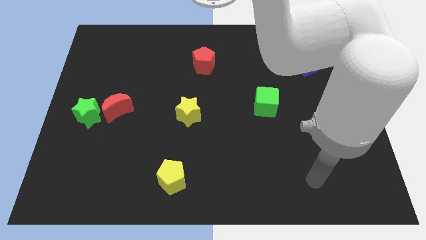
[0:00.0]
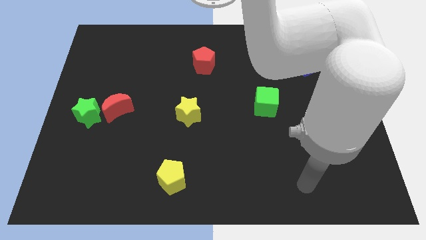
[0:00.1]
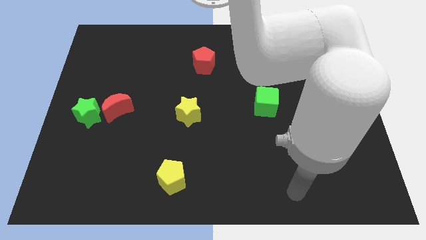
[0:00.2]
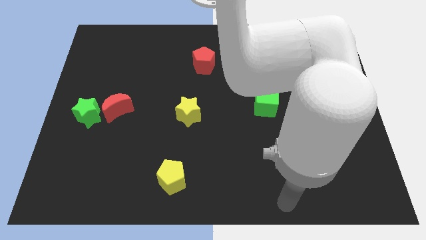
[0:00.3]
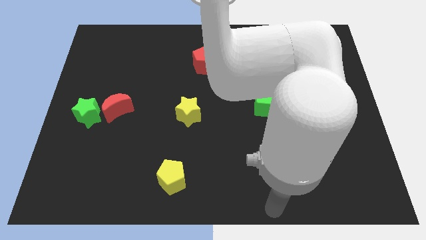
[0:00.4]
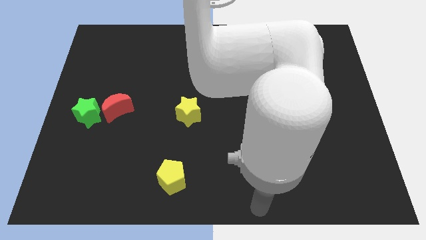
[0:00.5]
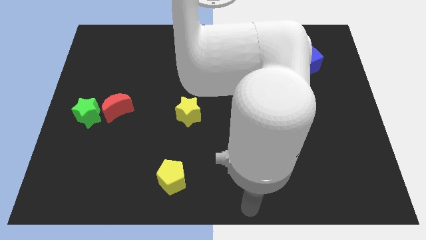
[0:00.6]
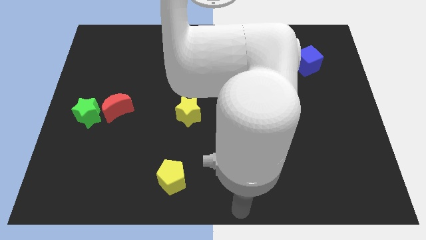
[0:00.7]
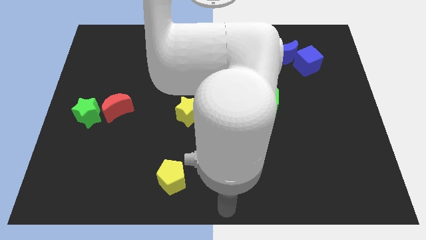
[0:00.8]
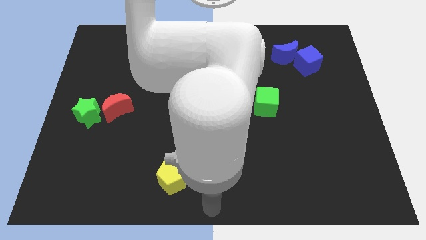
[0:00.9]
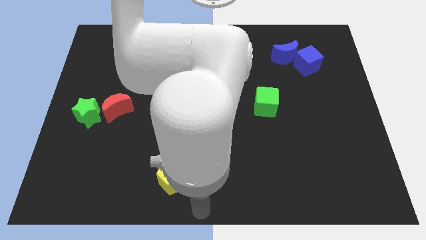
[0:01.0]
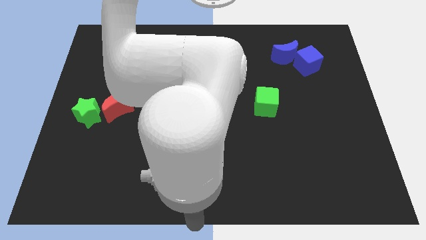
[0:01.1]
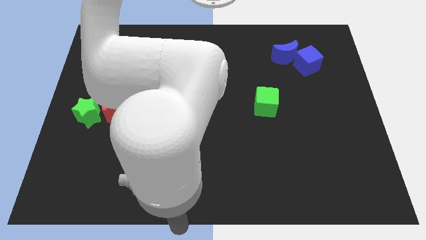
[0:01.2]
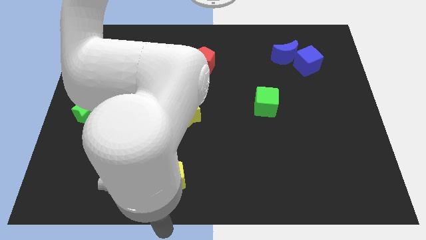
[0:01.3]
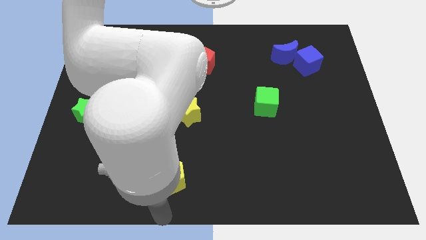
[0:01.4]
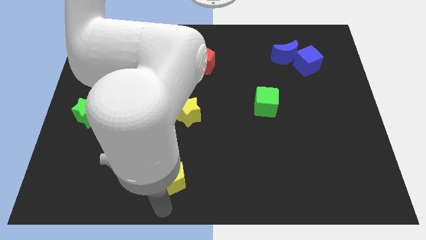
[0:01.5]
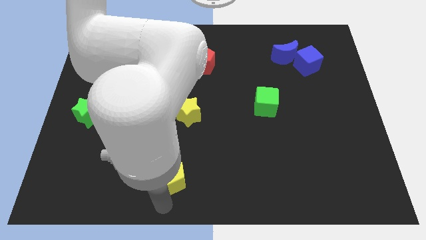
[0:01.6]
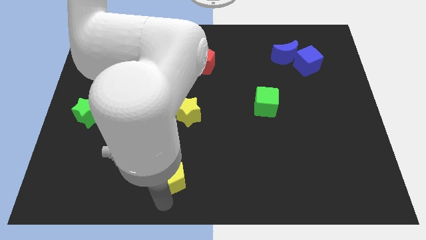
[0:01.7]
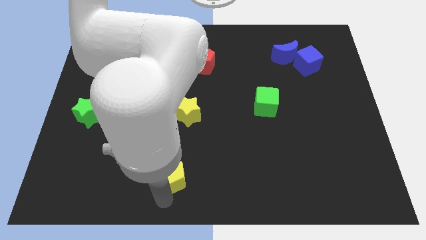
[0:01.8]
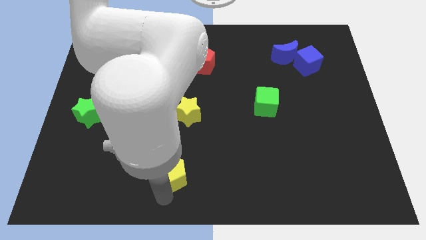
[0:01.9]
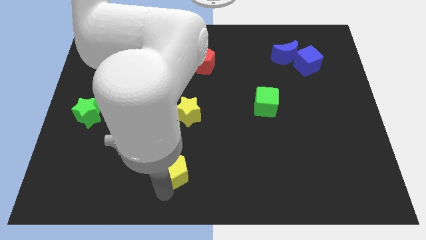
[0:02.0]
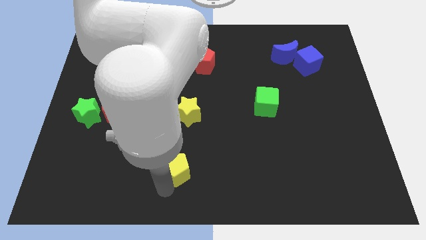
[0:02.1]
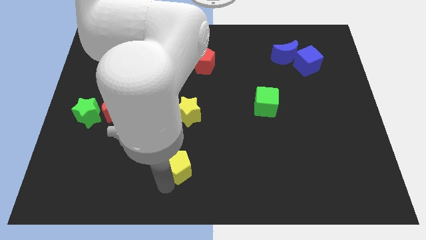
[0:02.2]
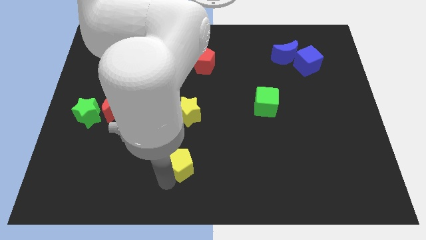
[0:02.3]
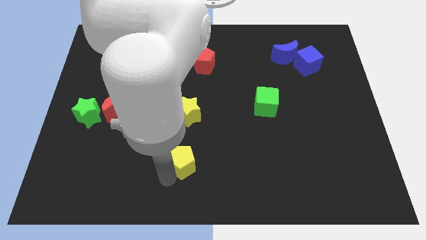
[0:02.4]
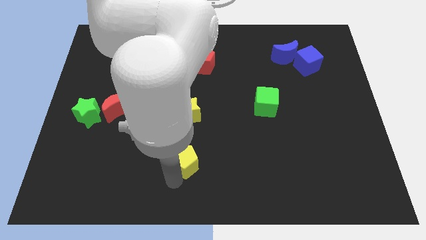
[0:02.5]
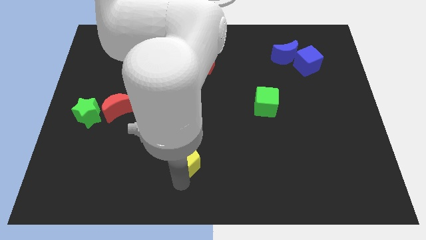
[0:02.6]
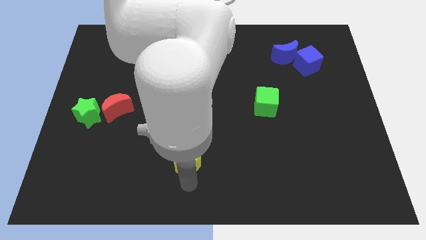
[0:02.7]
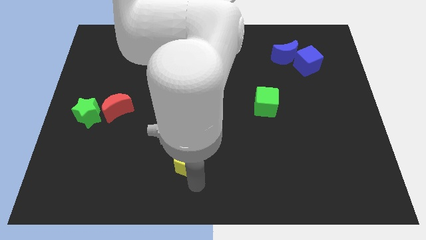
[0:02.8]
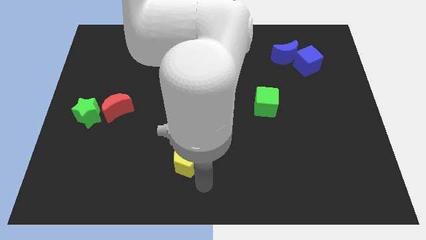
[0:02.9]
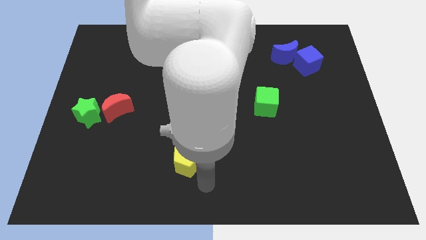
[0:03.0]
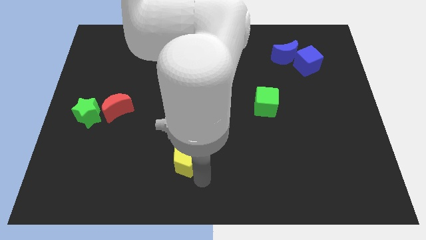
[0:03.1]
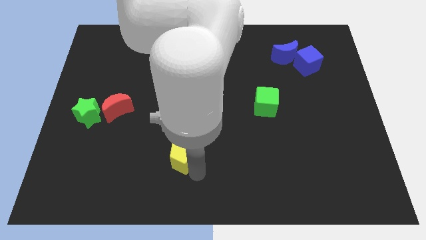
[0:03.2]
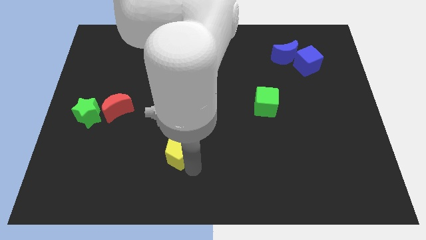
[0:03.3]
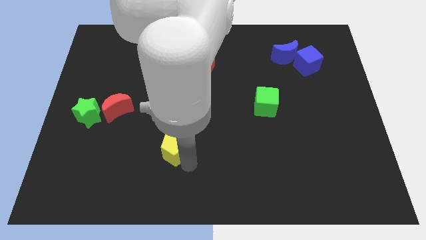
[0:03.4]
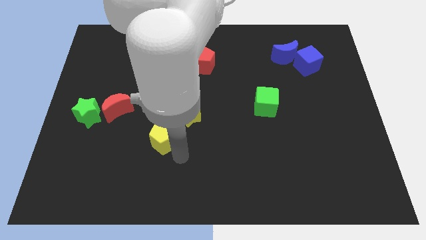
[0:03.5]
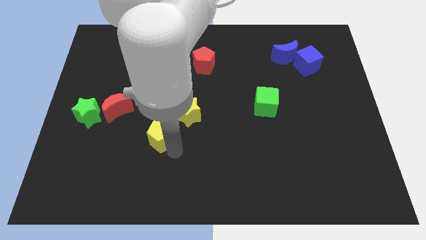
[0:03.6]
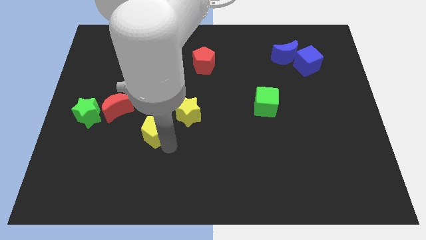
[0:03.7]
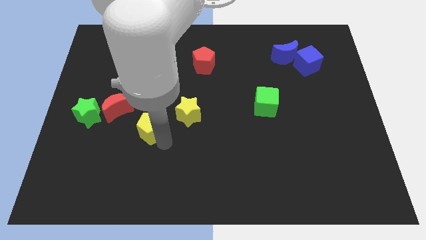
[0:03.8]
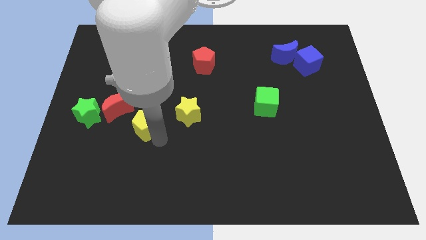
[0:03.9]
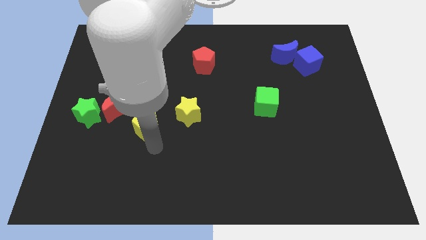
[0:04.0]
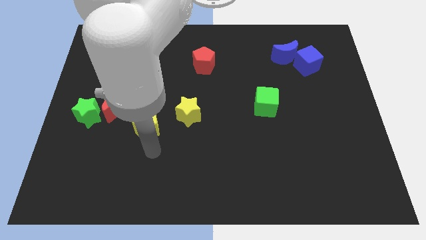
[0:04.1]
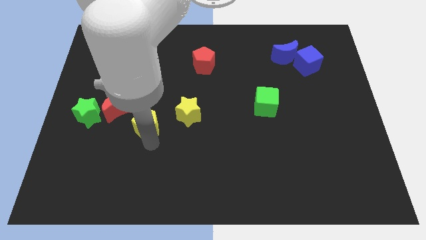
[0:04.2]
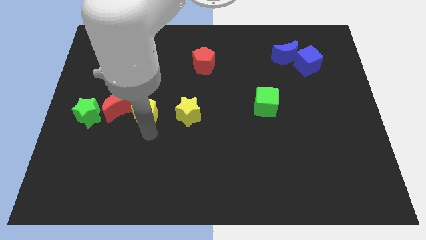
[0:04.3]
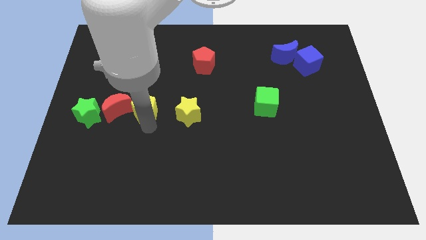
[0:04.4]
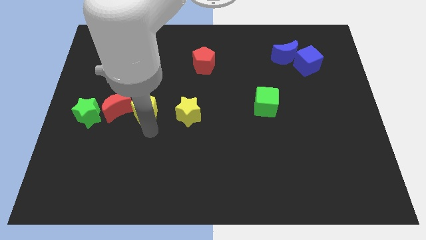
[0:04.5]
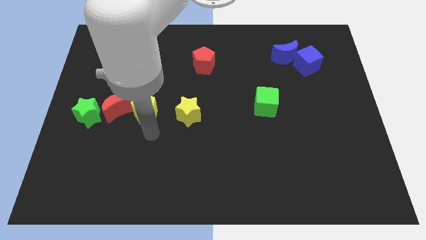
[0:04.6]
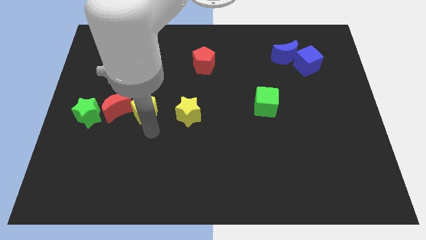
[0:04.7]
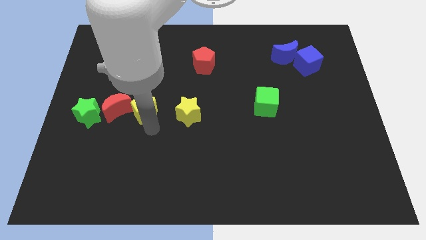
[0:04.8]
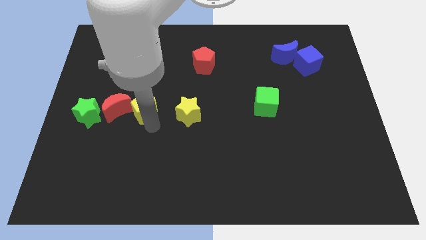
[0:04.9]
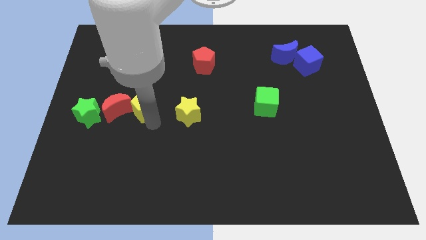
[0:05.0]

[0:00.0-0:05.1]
push the yellow pentagon to the top right of the red moon

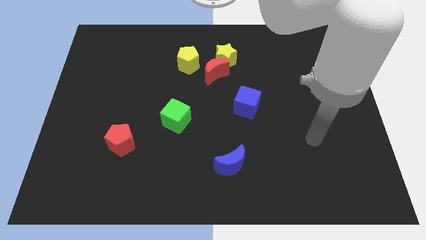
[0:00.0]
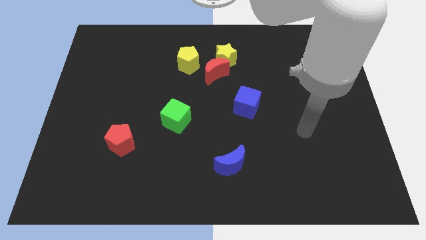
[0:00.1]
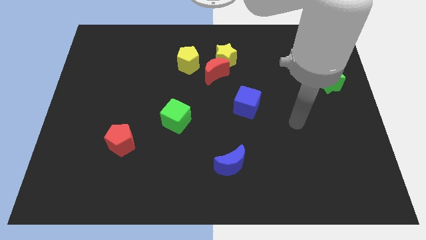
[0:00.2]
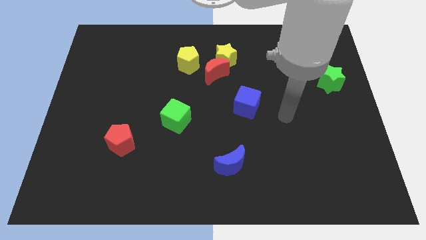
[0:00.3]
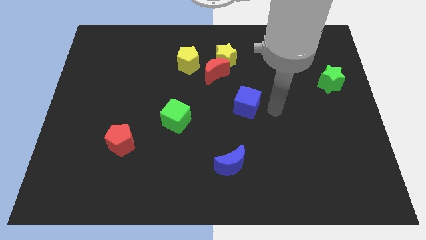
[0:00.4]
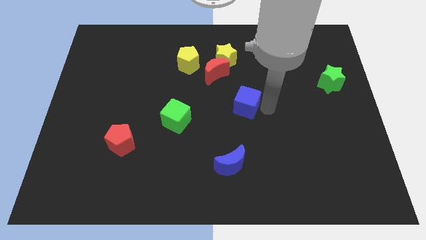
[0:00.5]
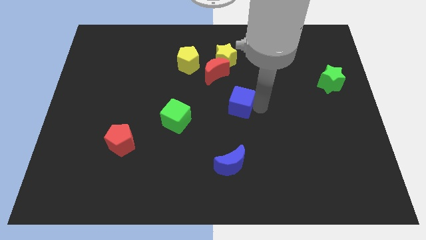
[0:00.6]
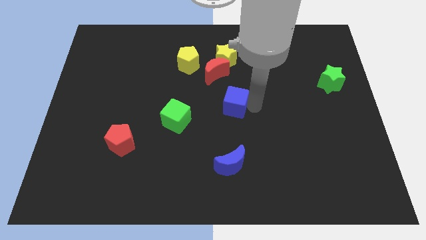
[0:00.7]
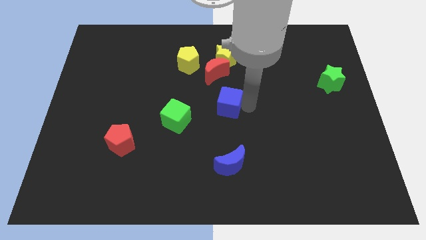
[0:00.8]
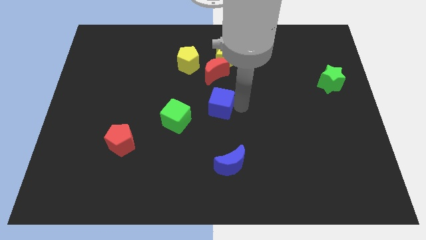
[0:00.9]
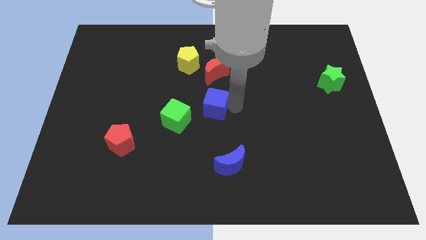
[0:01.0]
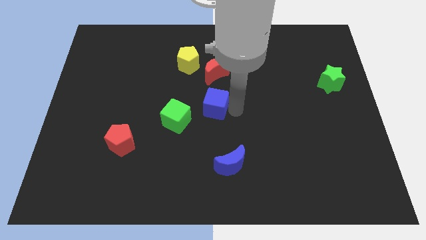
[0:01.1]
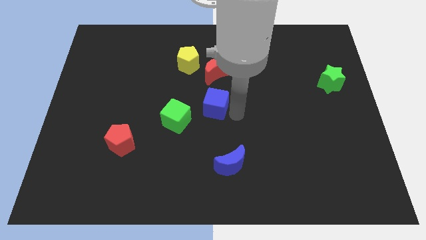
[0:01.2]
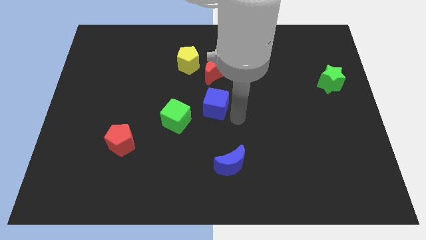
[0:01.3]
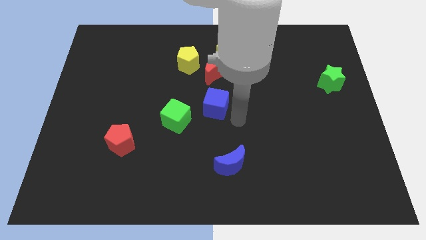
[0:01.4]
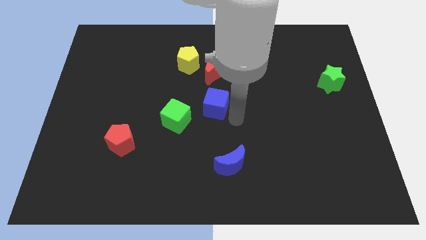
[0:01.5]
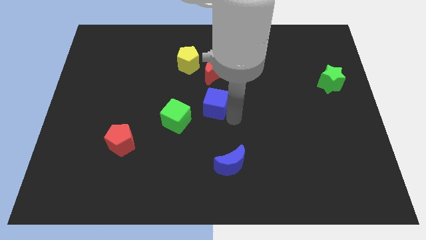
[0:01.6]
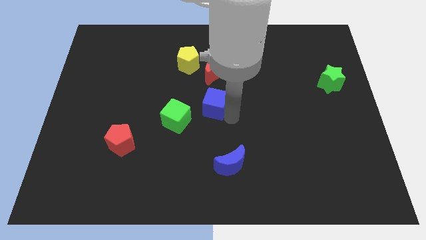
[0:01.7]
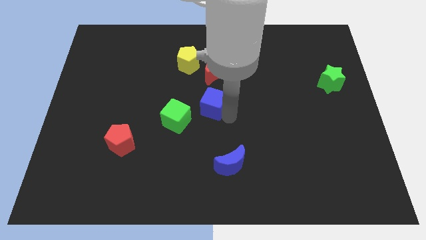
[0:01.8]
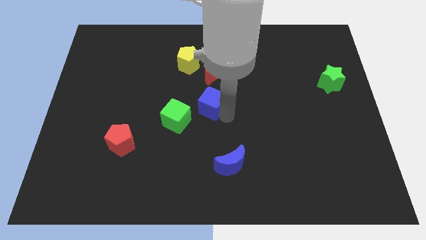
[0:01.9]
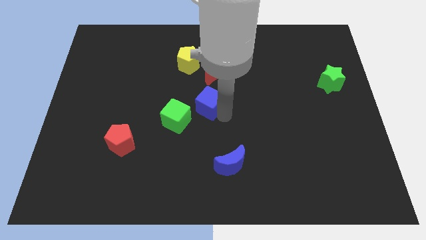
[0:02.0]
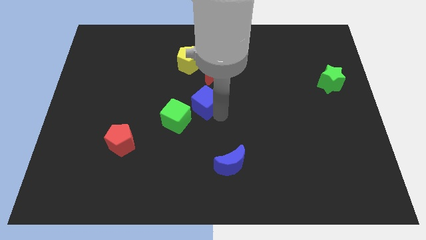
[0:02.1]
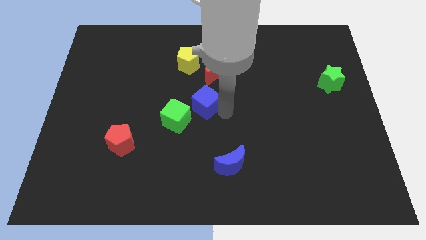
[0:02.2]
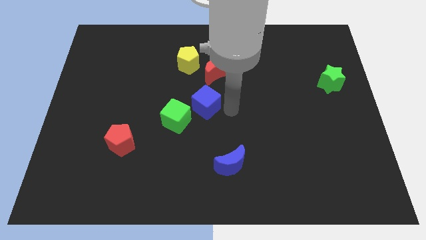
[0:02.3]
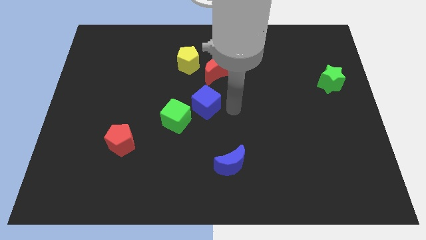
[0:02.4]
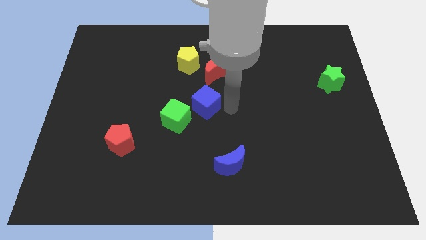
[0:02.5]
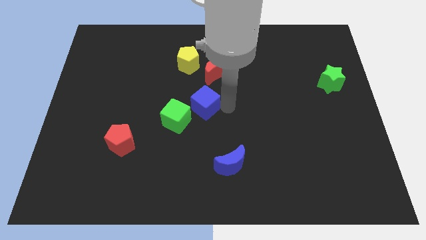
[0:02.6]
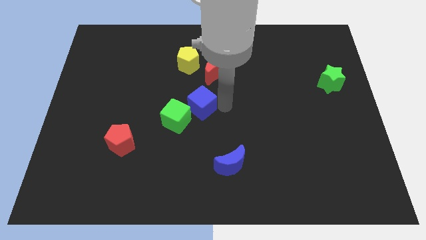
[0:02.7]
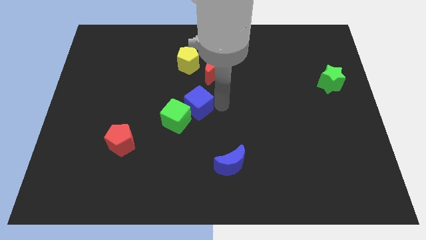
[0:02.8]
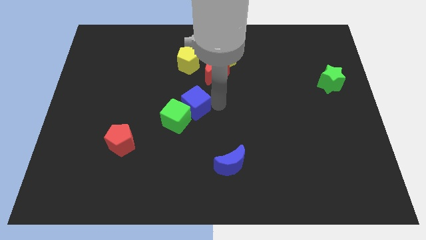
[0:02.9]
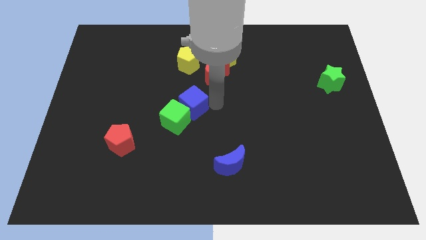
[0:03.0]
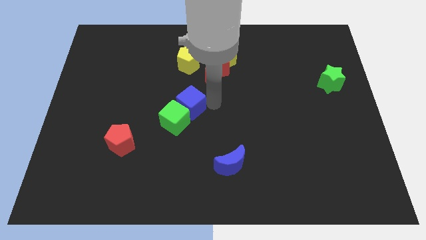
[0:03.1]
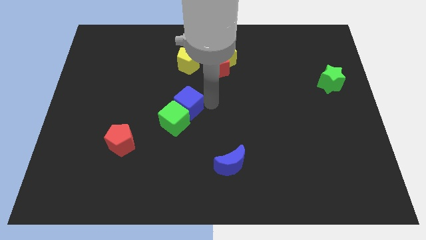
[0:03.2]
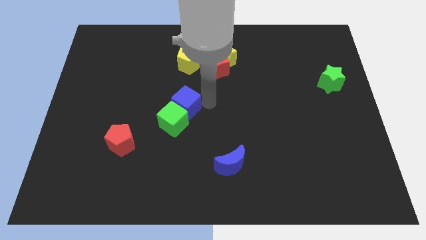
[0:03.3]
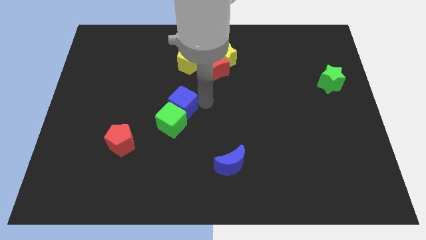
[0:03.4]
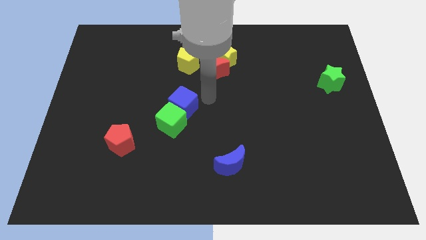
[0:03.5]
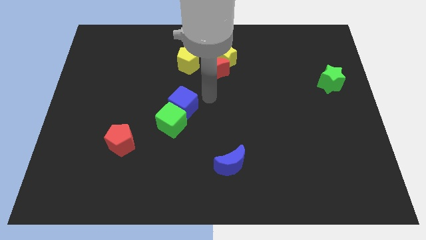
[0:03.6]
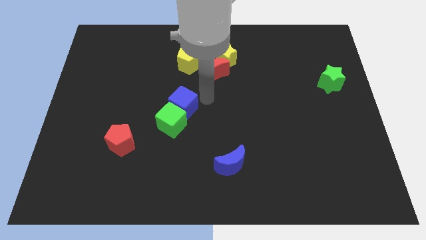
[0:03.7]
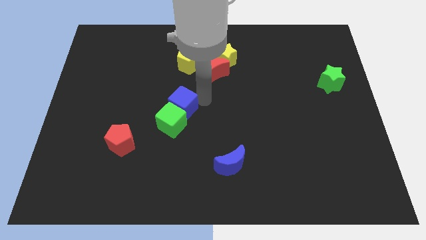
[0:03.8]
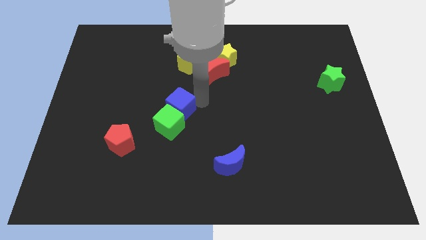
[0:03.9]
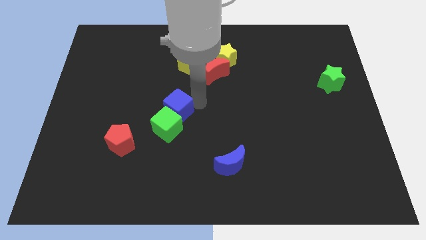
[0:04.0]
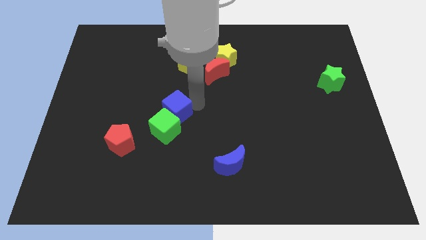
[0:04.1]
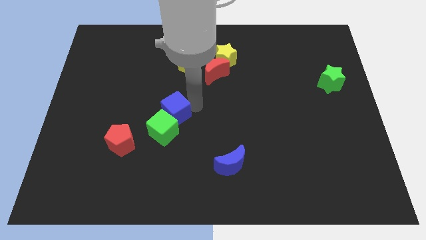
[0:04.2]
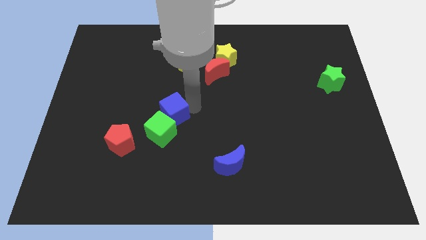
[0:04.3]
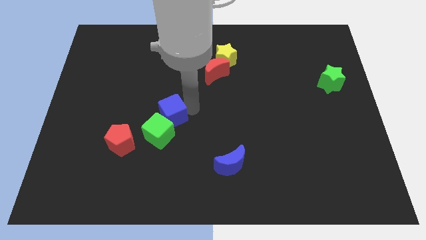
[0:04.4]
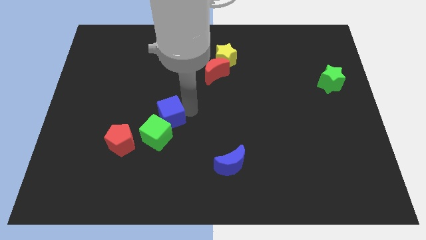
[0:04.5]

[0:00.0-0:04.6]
slide the blue cube to the top right of the red pentagon
